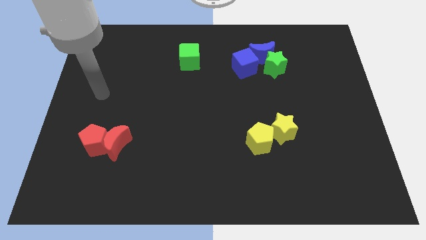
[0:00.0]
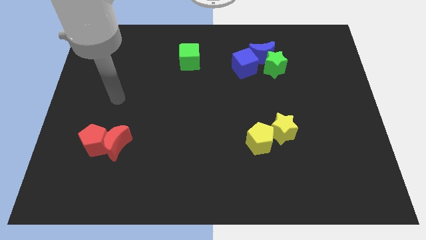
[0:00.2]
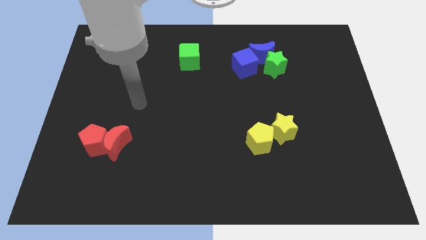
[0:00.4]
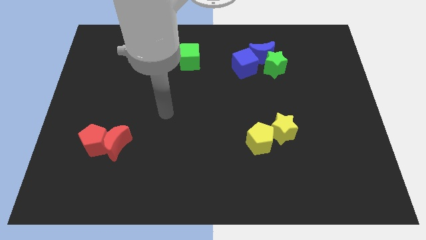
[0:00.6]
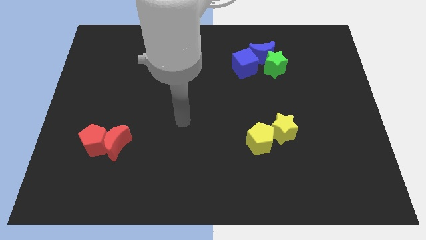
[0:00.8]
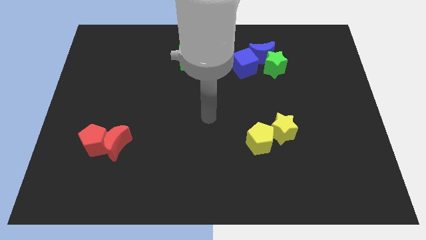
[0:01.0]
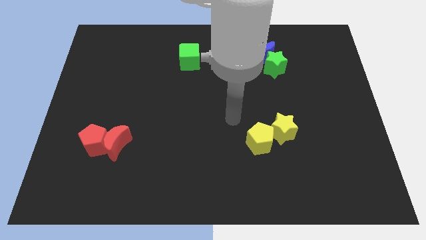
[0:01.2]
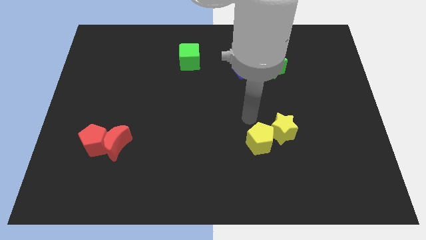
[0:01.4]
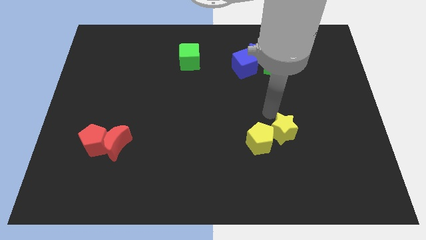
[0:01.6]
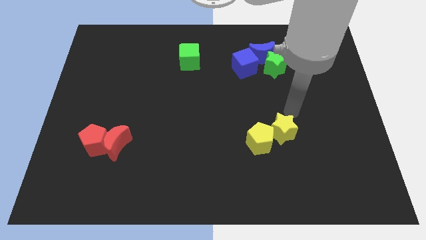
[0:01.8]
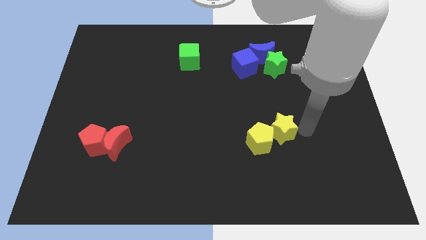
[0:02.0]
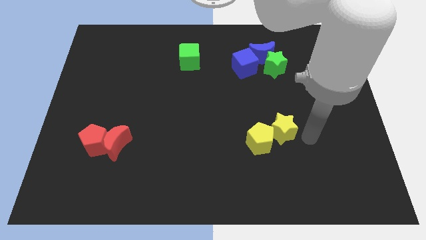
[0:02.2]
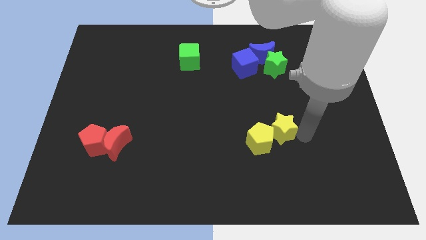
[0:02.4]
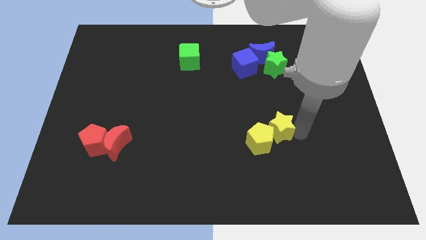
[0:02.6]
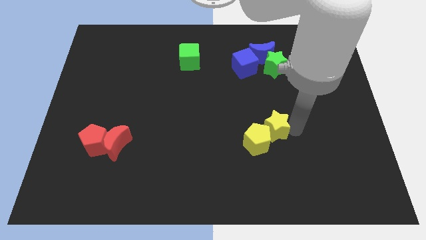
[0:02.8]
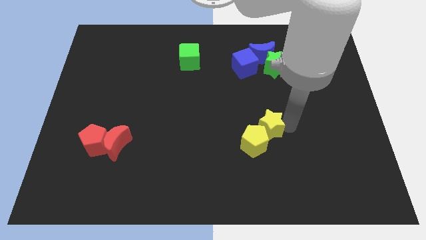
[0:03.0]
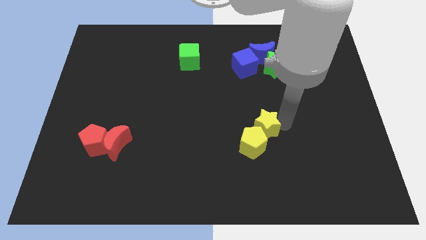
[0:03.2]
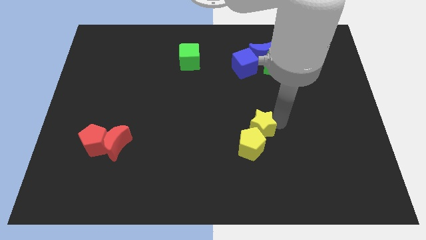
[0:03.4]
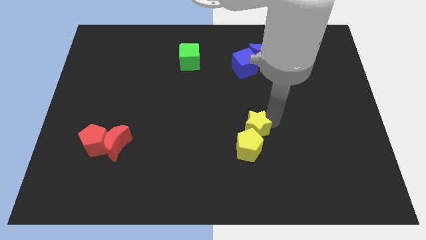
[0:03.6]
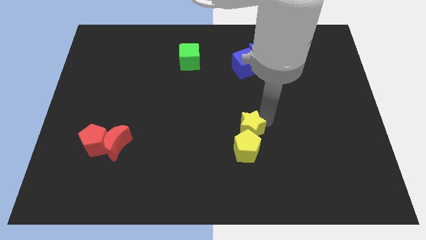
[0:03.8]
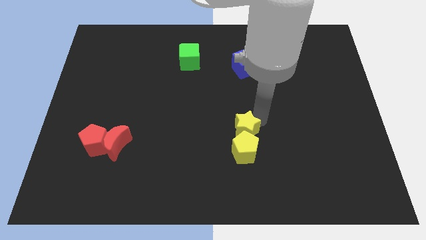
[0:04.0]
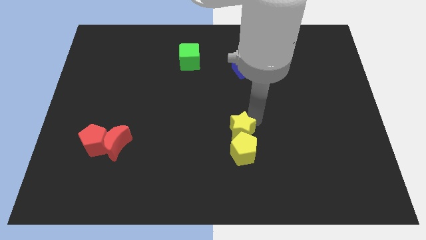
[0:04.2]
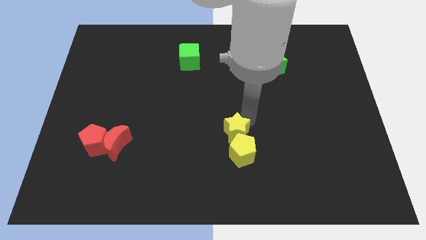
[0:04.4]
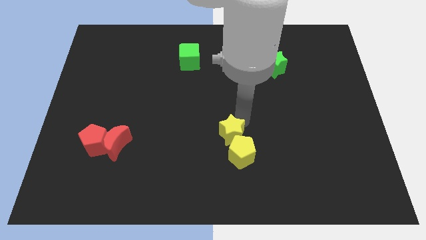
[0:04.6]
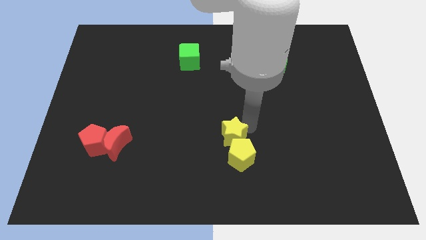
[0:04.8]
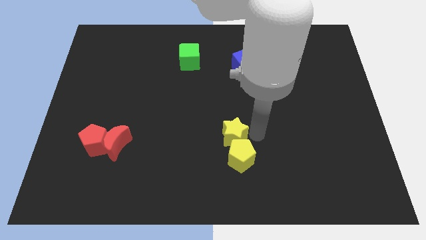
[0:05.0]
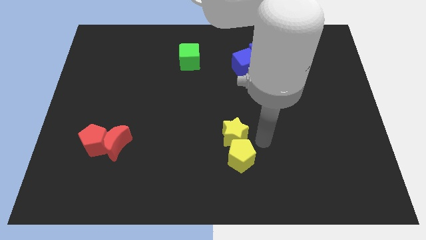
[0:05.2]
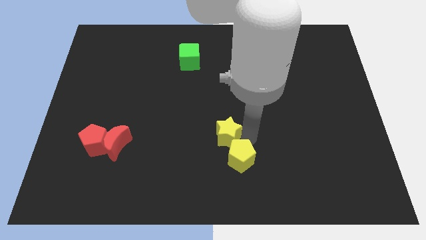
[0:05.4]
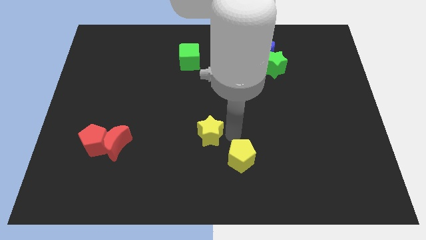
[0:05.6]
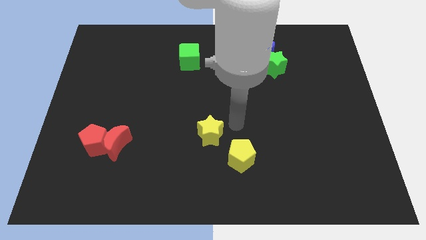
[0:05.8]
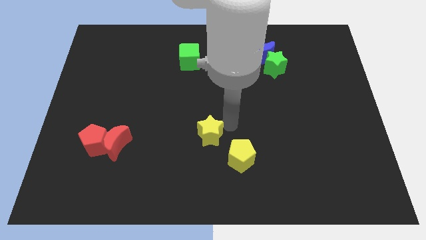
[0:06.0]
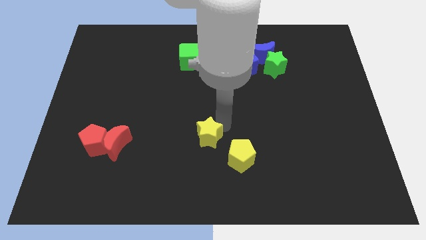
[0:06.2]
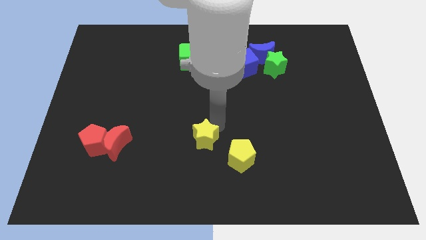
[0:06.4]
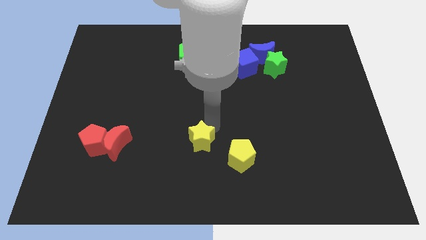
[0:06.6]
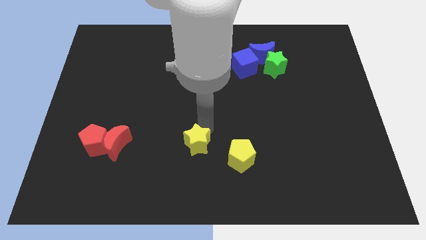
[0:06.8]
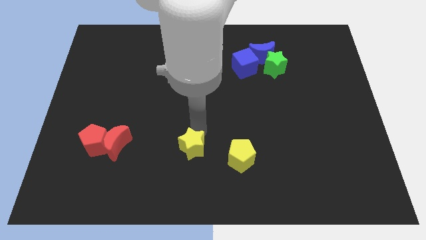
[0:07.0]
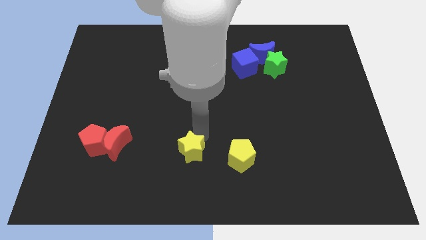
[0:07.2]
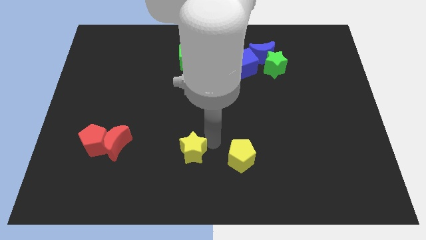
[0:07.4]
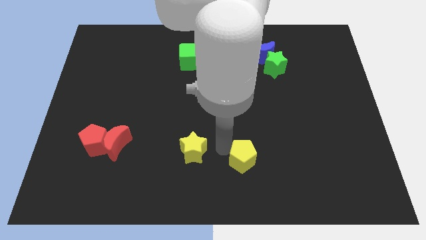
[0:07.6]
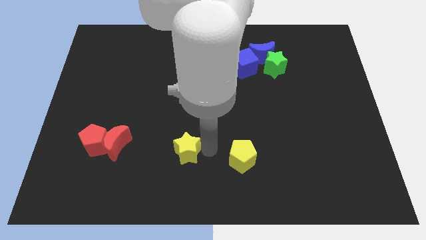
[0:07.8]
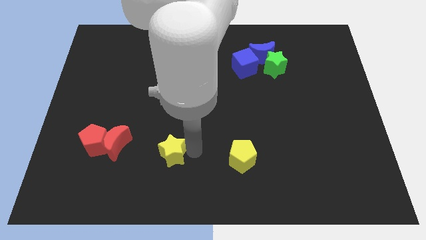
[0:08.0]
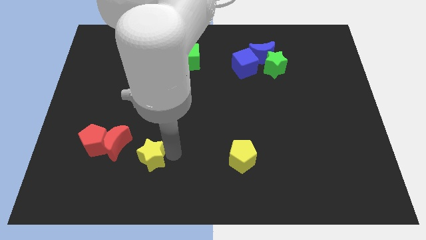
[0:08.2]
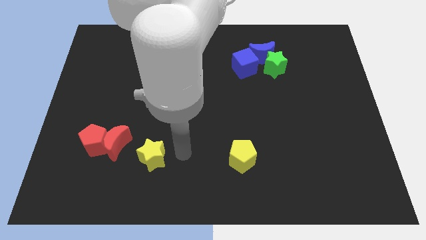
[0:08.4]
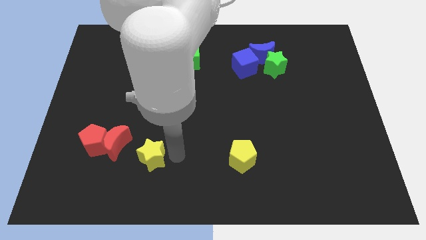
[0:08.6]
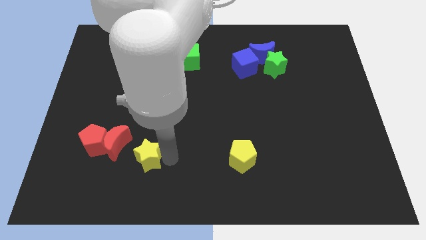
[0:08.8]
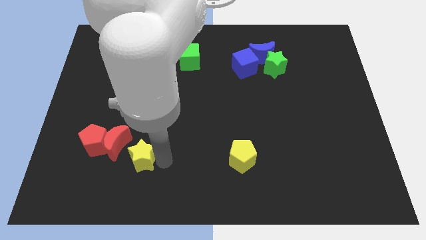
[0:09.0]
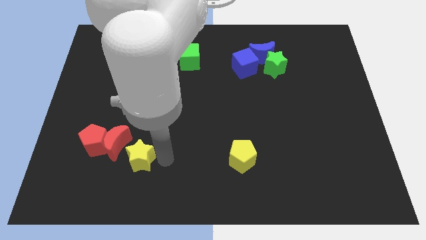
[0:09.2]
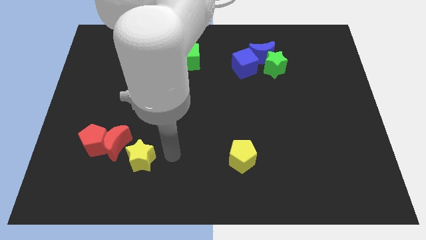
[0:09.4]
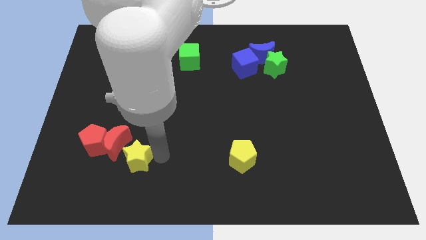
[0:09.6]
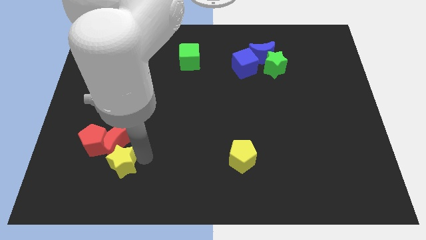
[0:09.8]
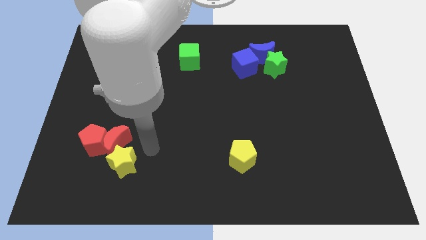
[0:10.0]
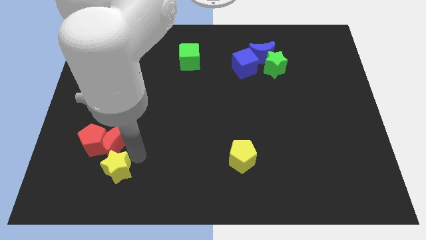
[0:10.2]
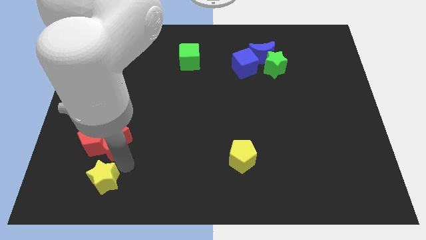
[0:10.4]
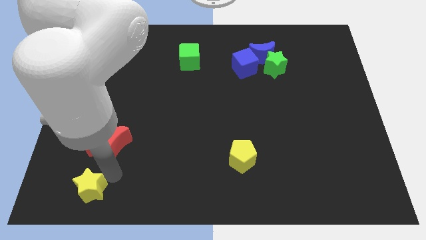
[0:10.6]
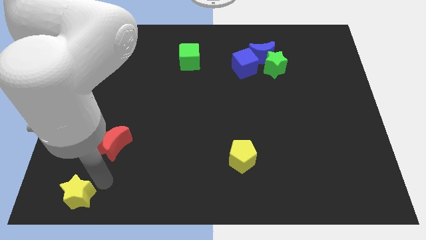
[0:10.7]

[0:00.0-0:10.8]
push the yellow star to the lower left corner
